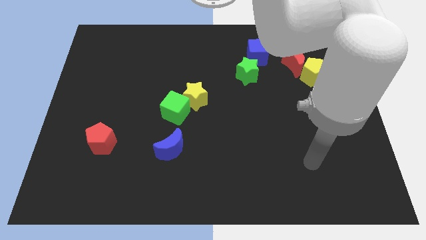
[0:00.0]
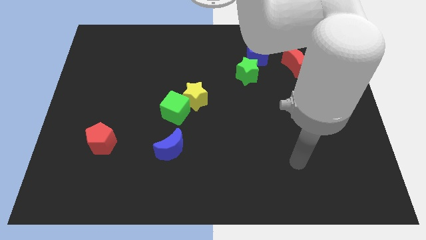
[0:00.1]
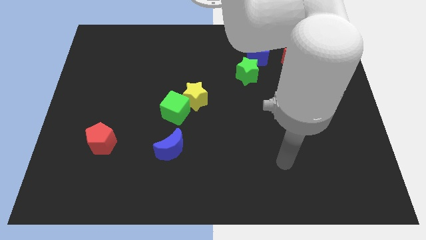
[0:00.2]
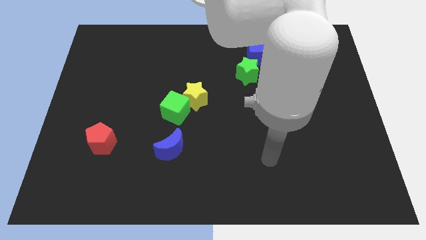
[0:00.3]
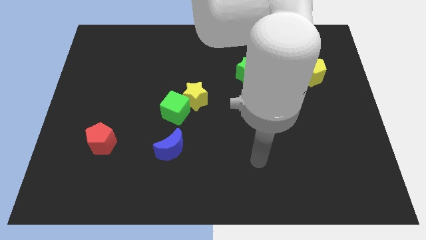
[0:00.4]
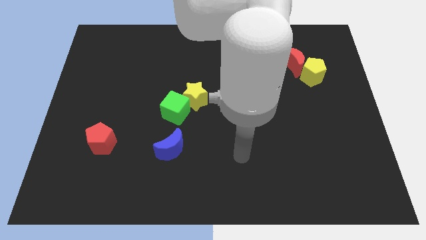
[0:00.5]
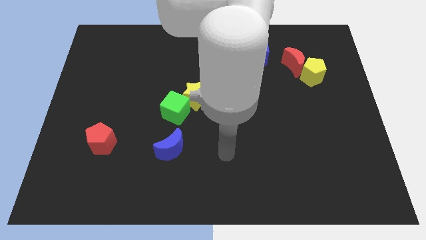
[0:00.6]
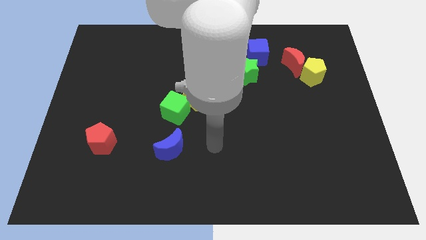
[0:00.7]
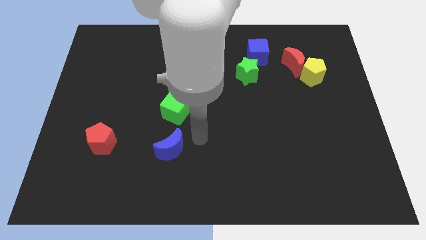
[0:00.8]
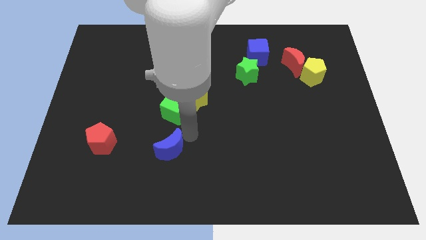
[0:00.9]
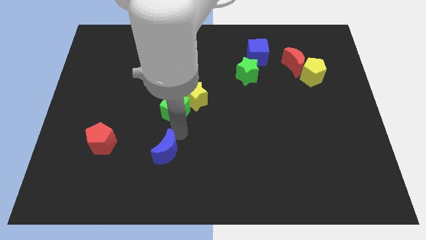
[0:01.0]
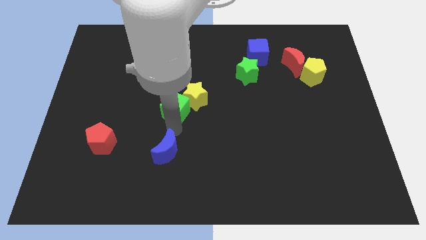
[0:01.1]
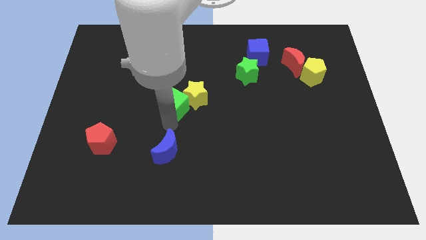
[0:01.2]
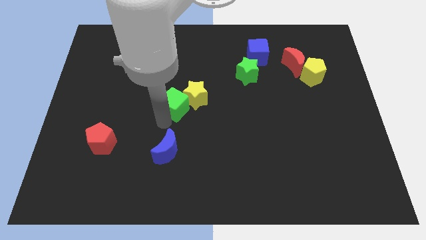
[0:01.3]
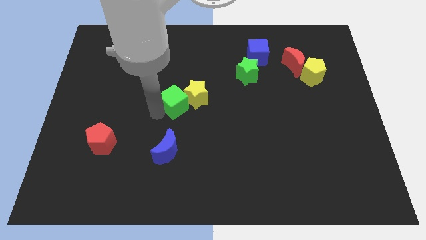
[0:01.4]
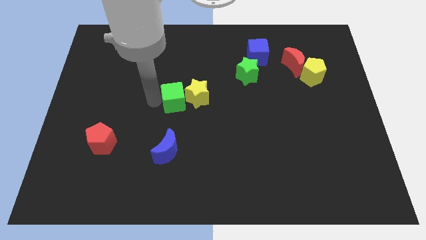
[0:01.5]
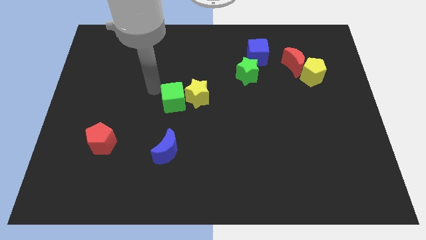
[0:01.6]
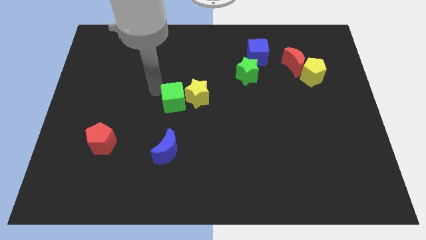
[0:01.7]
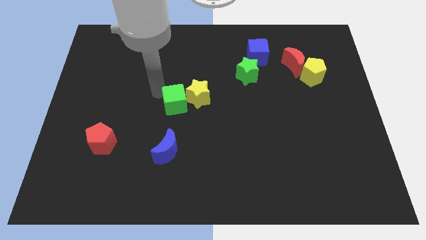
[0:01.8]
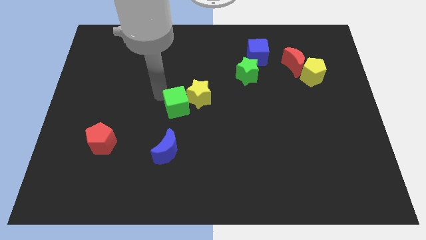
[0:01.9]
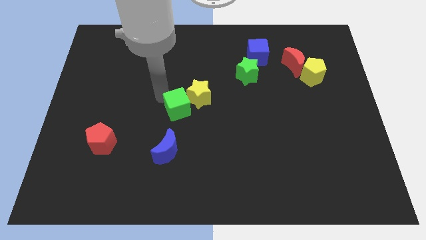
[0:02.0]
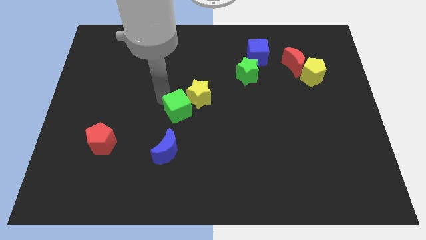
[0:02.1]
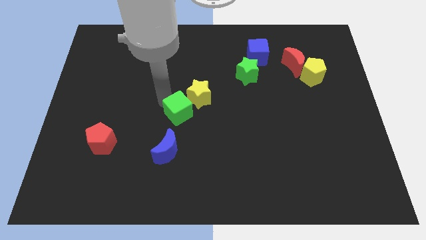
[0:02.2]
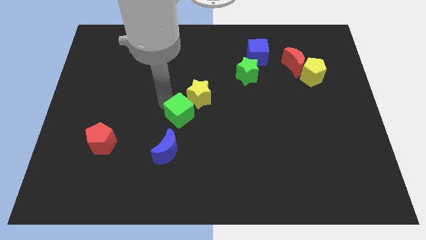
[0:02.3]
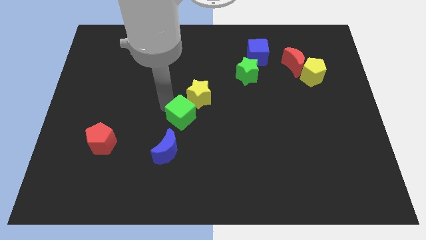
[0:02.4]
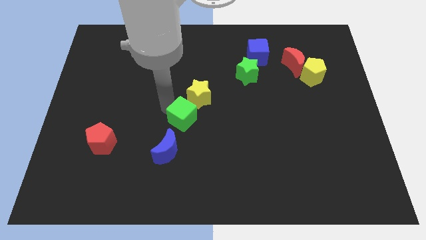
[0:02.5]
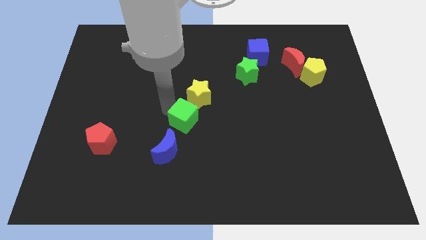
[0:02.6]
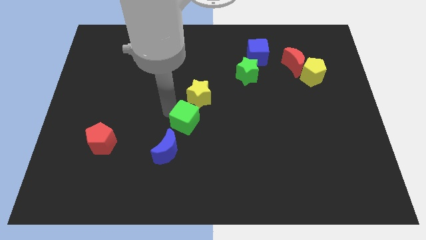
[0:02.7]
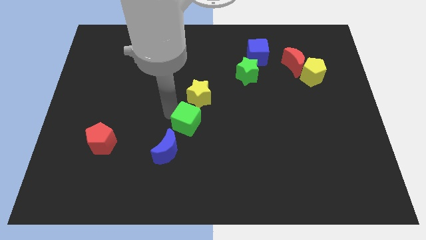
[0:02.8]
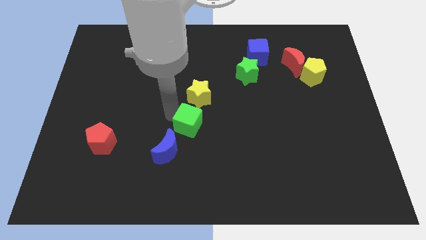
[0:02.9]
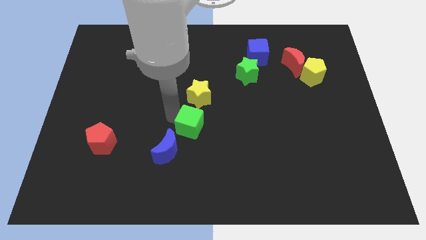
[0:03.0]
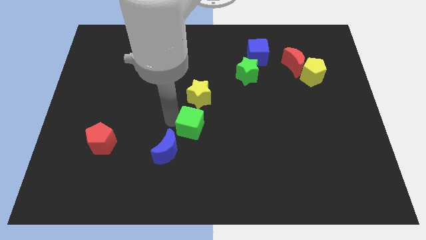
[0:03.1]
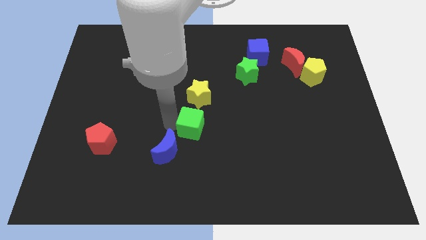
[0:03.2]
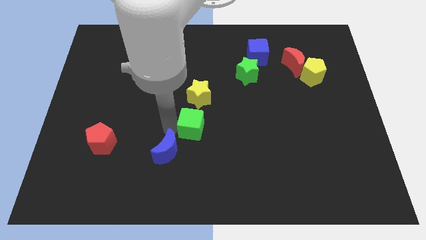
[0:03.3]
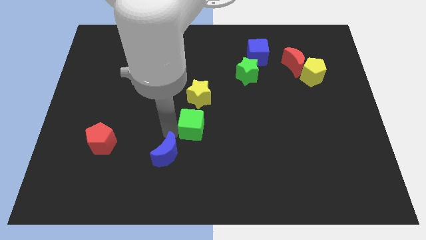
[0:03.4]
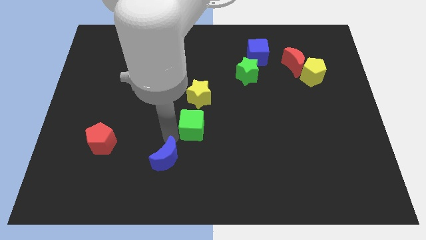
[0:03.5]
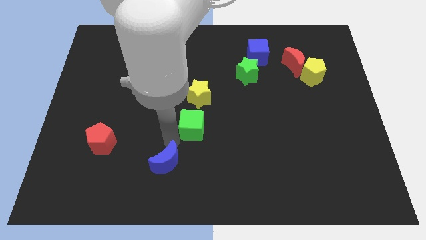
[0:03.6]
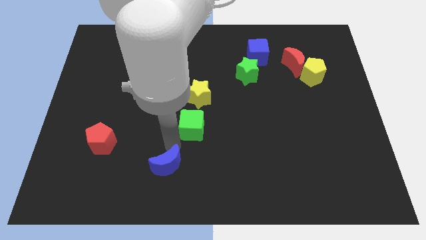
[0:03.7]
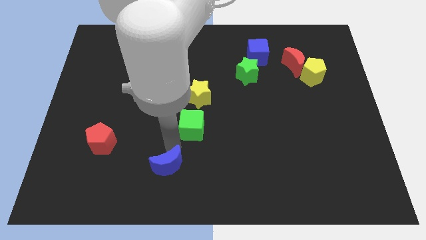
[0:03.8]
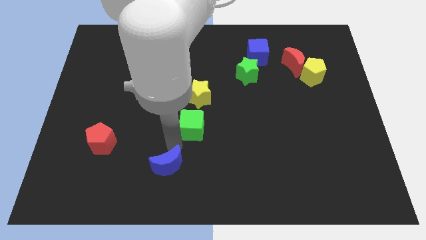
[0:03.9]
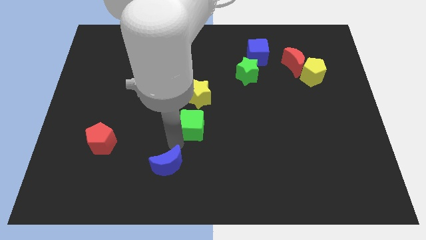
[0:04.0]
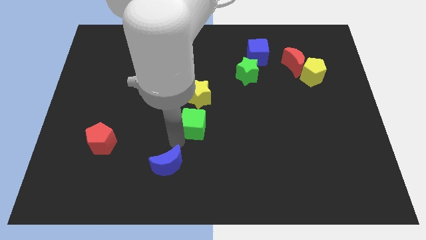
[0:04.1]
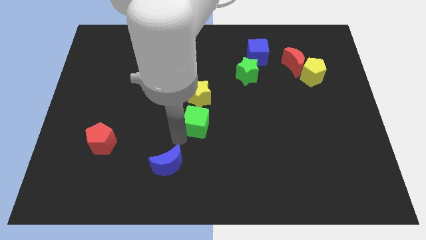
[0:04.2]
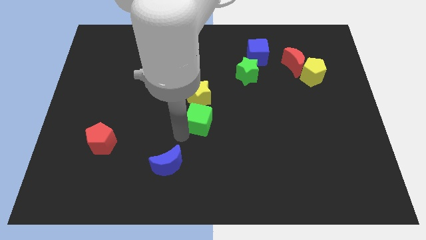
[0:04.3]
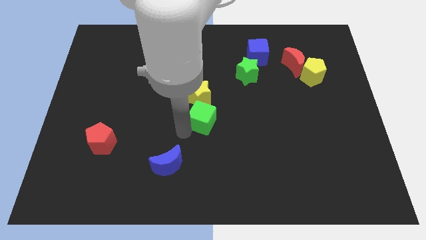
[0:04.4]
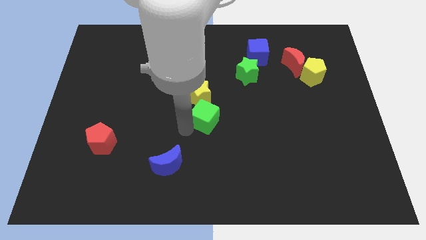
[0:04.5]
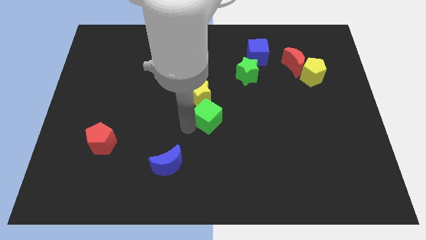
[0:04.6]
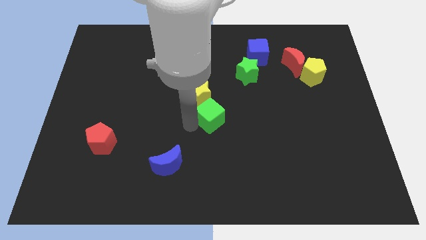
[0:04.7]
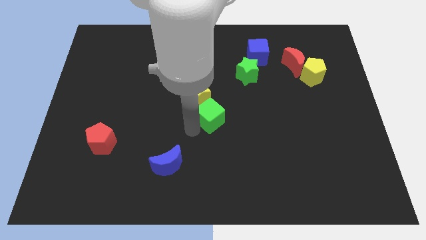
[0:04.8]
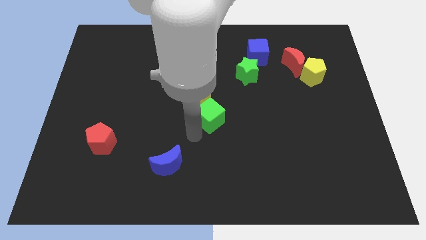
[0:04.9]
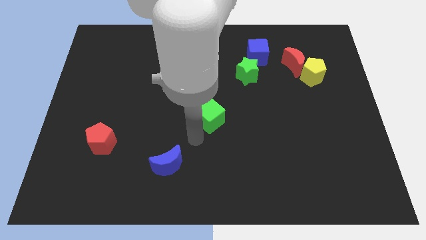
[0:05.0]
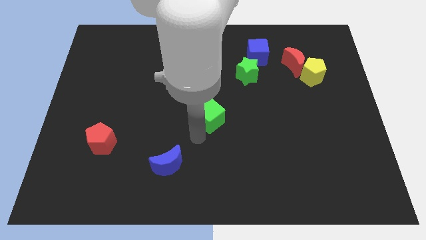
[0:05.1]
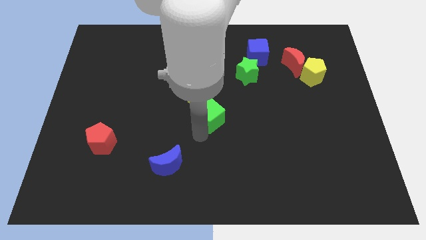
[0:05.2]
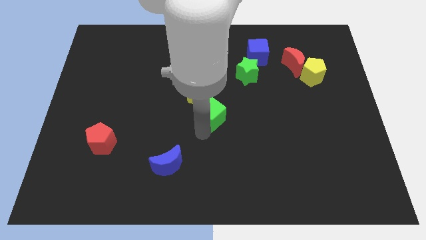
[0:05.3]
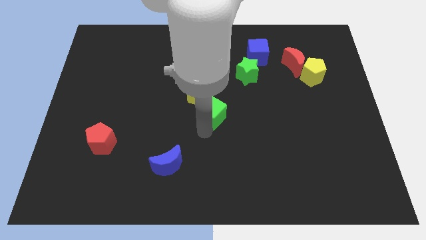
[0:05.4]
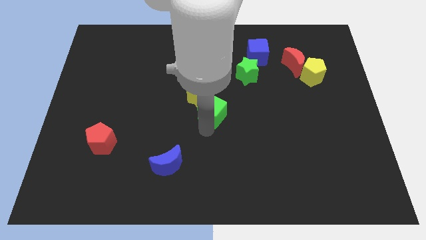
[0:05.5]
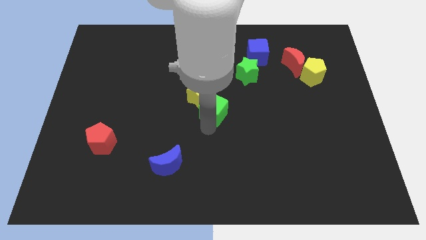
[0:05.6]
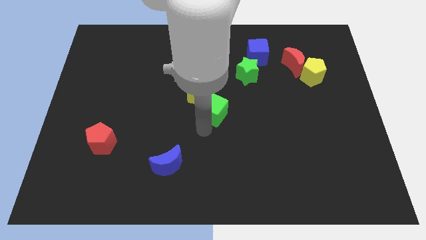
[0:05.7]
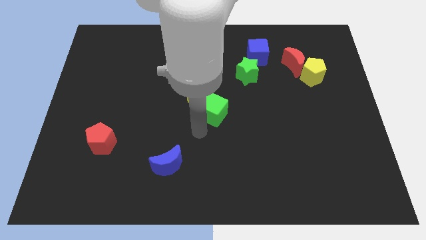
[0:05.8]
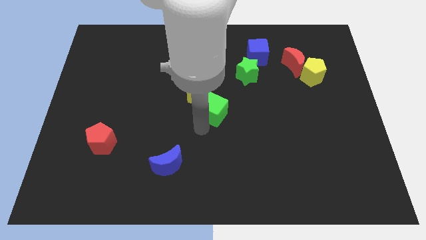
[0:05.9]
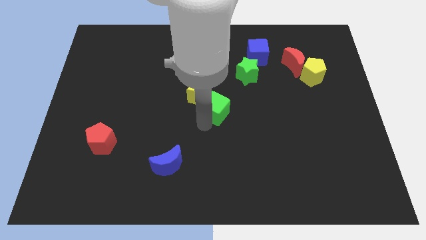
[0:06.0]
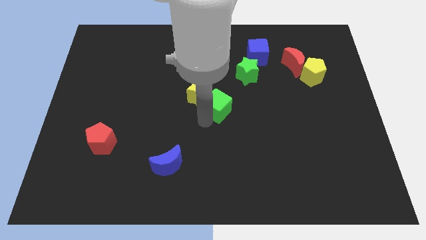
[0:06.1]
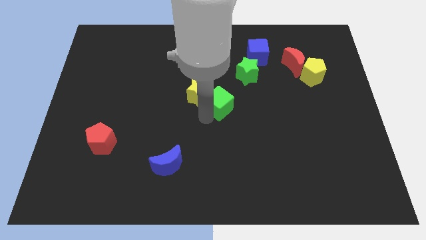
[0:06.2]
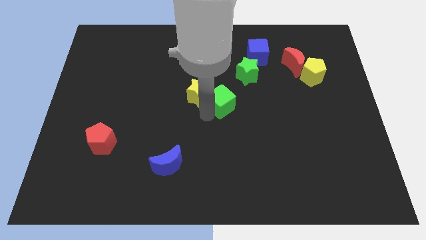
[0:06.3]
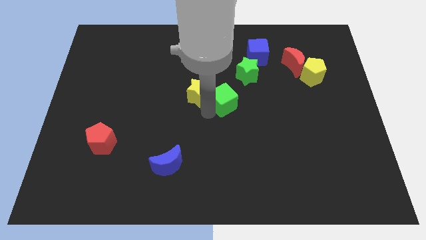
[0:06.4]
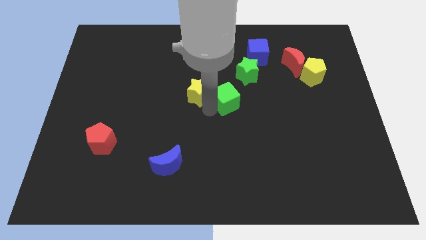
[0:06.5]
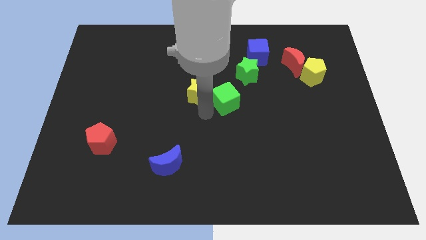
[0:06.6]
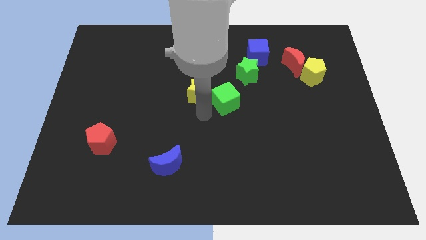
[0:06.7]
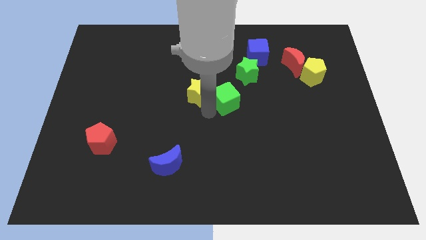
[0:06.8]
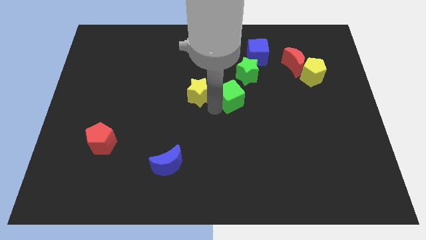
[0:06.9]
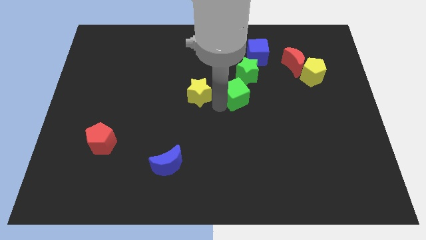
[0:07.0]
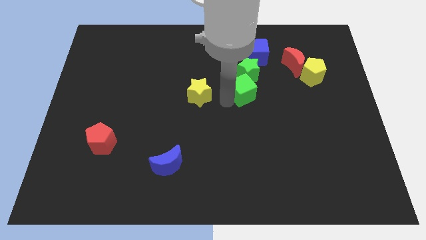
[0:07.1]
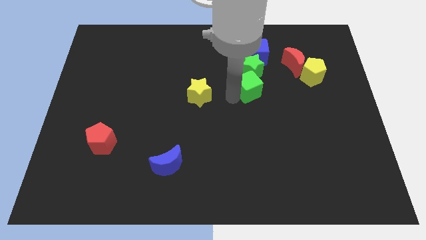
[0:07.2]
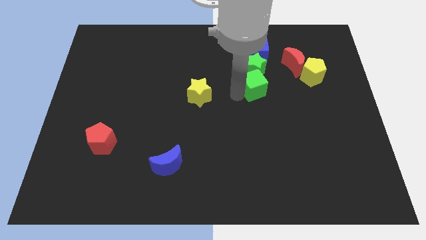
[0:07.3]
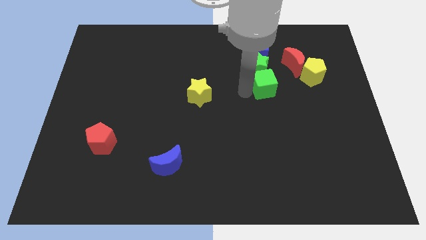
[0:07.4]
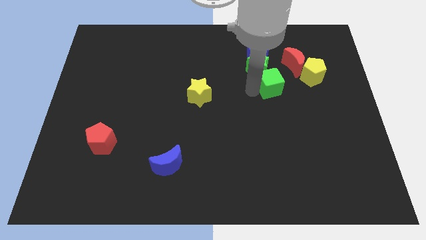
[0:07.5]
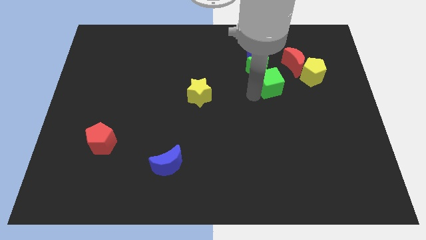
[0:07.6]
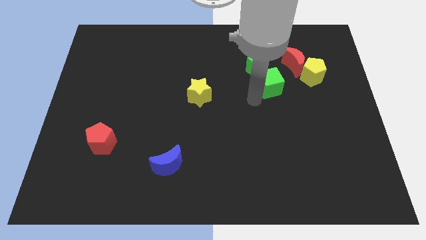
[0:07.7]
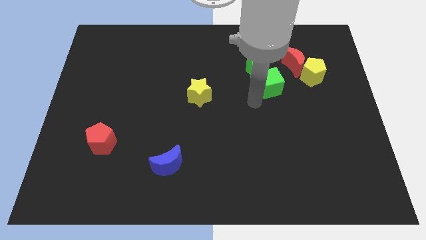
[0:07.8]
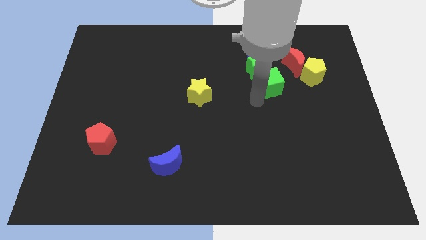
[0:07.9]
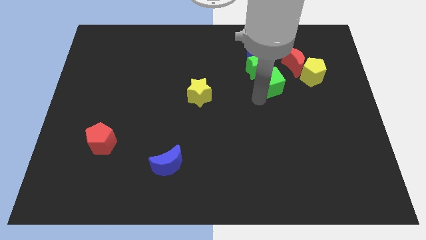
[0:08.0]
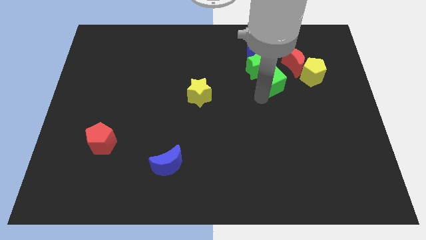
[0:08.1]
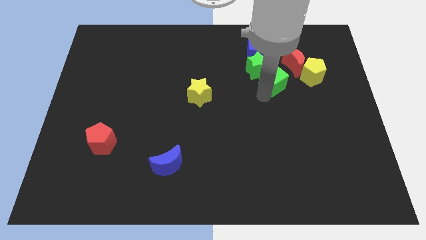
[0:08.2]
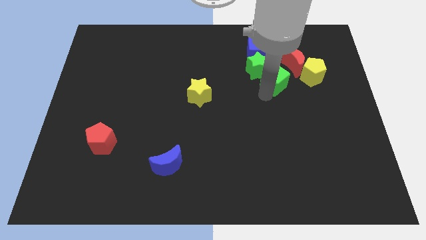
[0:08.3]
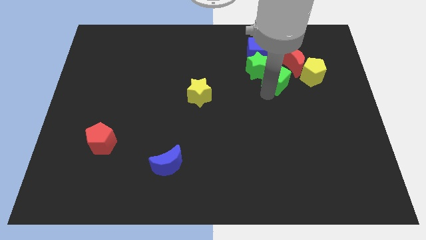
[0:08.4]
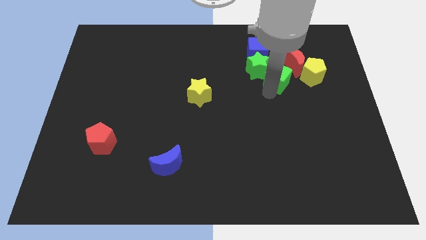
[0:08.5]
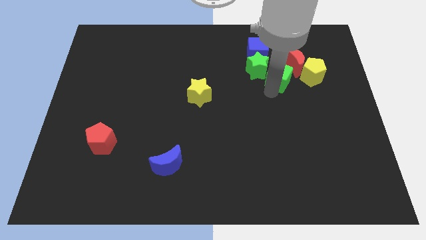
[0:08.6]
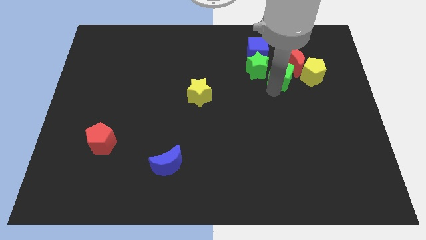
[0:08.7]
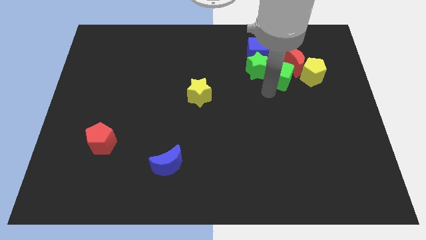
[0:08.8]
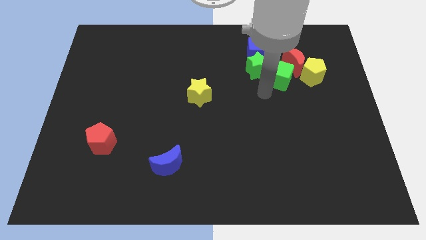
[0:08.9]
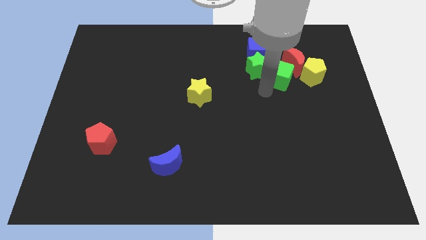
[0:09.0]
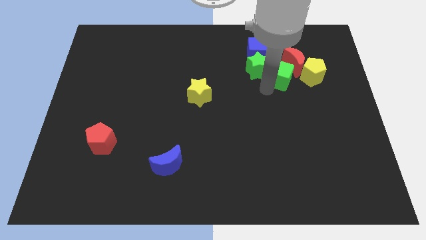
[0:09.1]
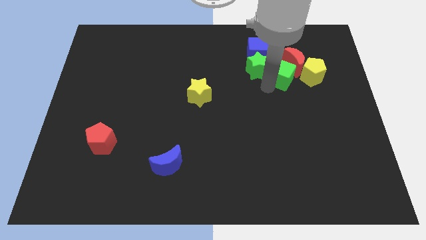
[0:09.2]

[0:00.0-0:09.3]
move the green cube next to the red moon
